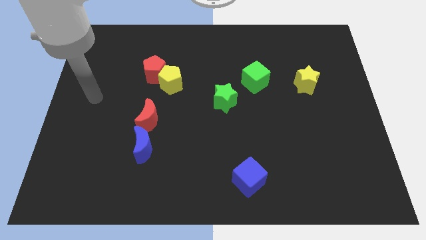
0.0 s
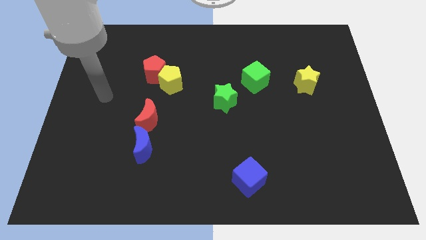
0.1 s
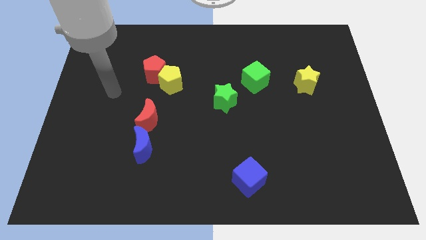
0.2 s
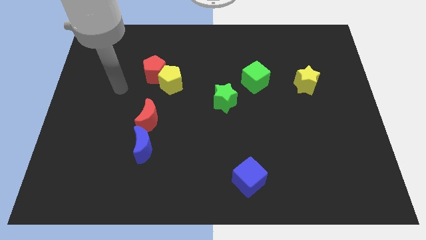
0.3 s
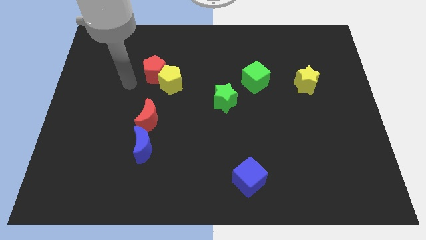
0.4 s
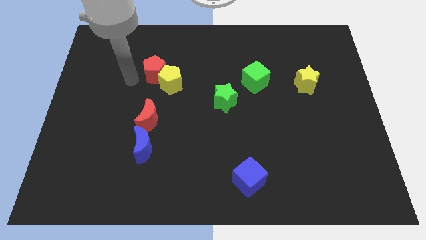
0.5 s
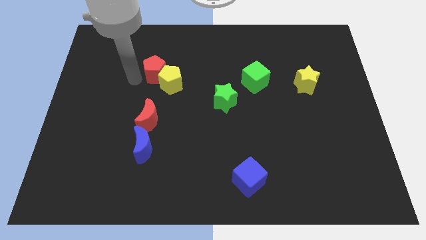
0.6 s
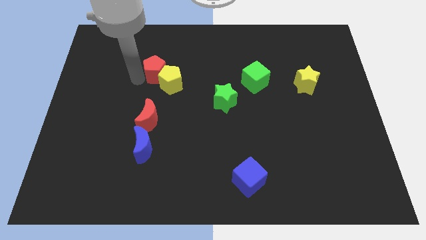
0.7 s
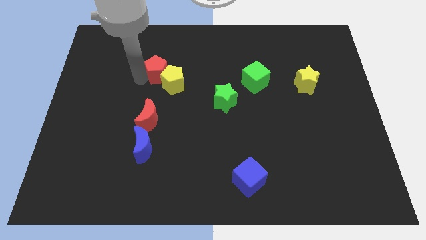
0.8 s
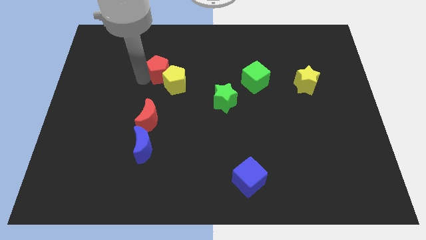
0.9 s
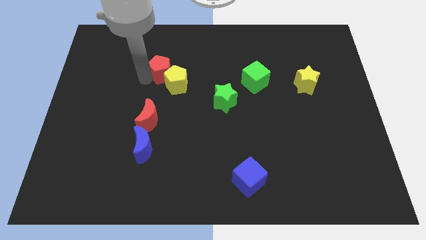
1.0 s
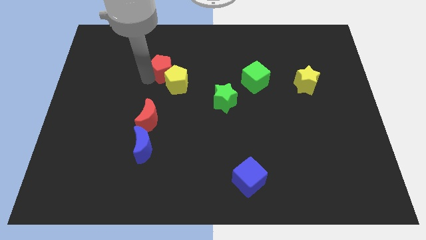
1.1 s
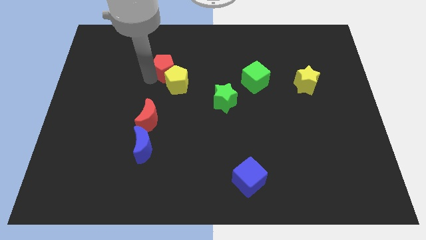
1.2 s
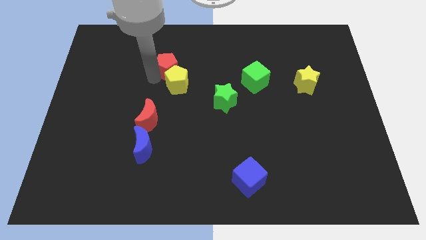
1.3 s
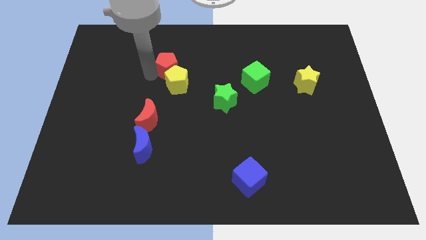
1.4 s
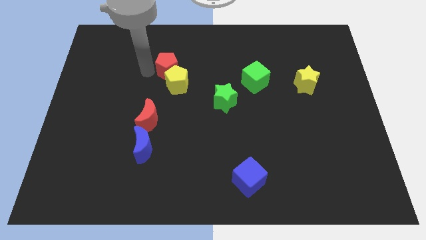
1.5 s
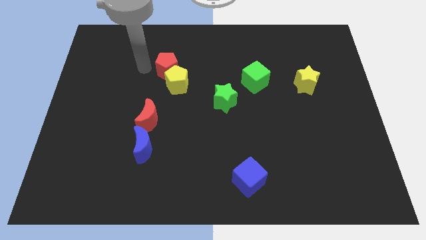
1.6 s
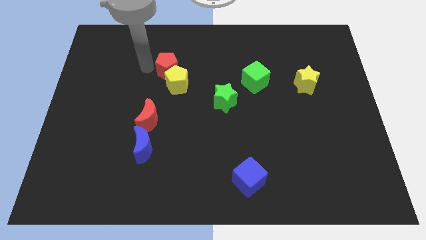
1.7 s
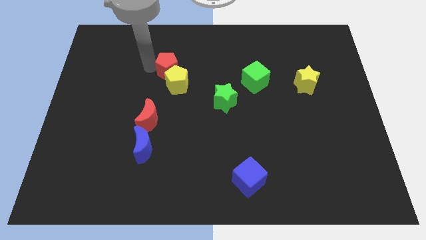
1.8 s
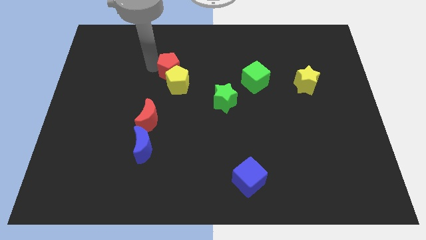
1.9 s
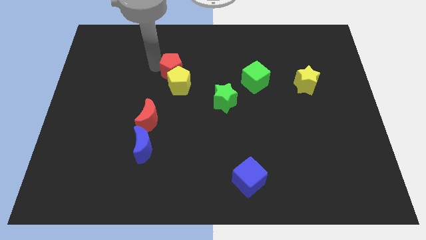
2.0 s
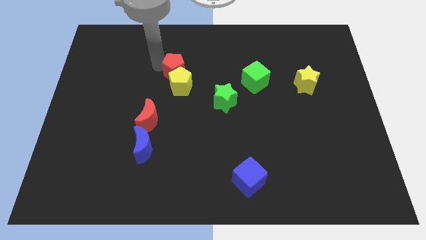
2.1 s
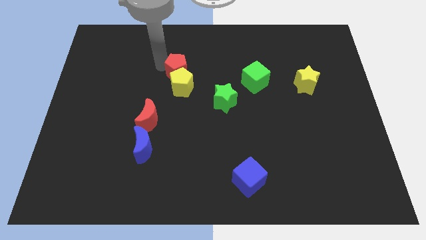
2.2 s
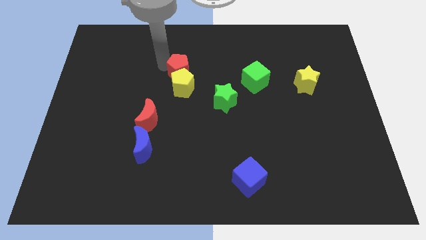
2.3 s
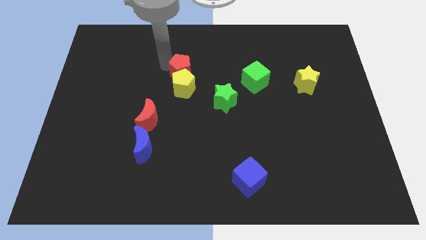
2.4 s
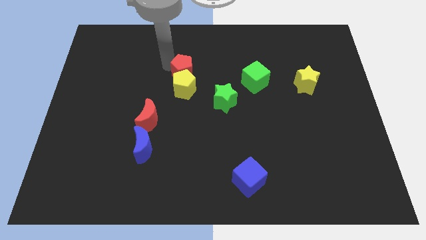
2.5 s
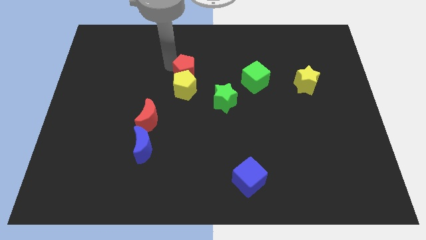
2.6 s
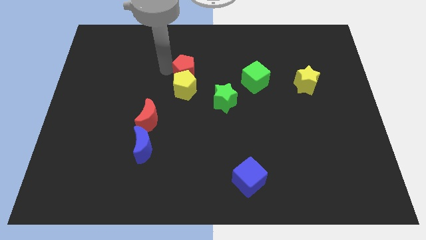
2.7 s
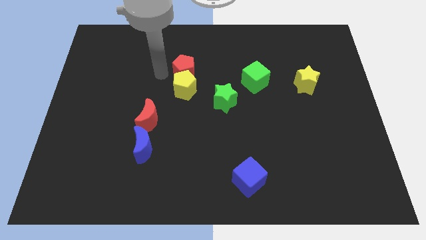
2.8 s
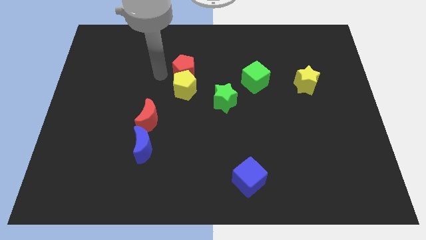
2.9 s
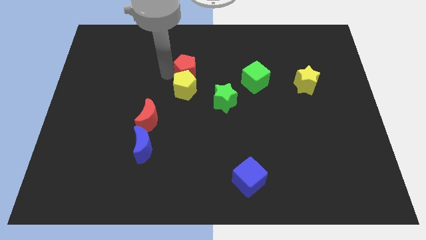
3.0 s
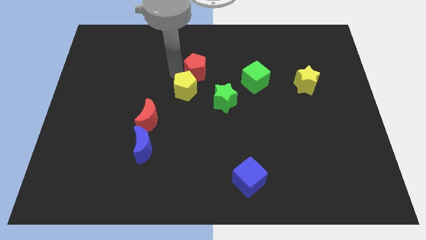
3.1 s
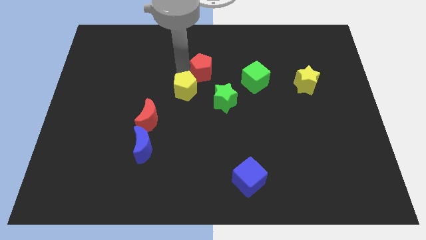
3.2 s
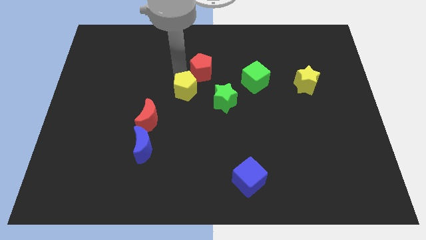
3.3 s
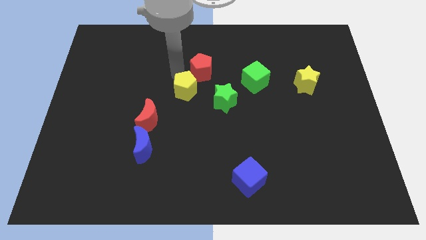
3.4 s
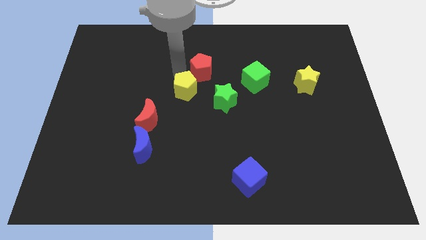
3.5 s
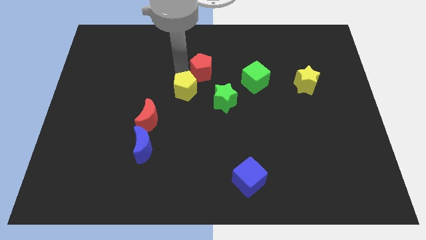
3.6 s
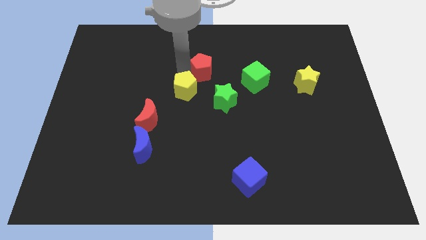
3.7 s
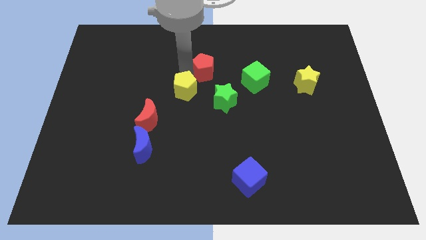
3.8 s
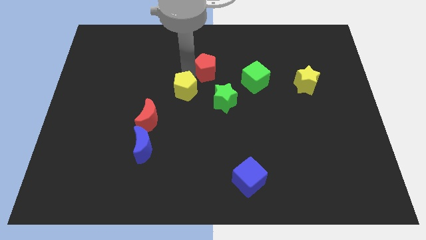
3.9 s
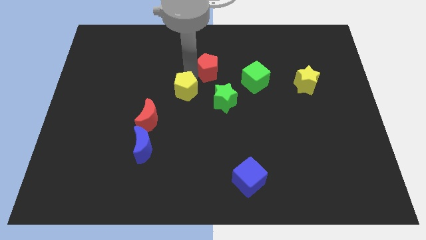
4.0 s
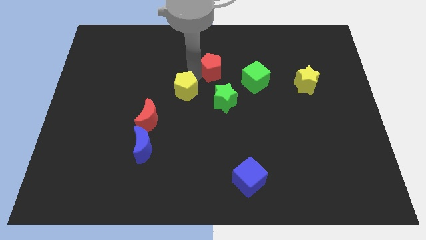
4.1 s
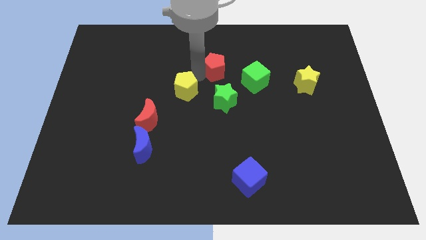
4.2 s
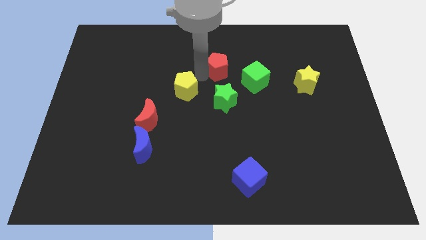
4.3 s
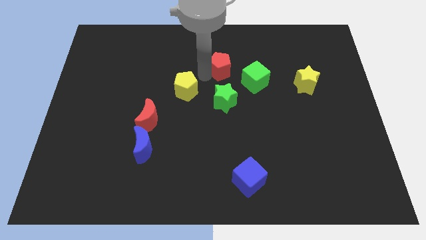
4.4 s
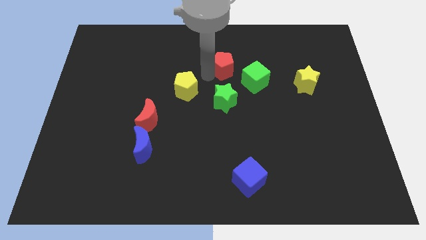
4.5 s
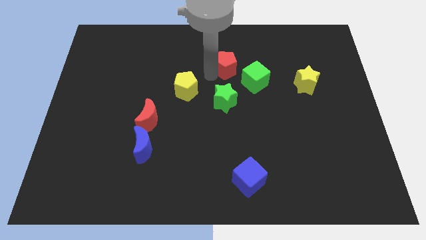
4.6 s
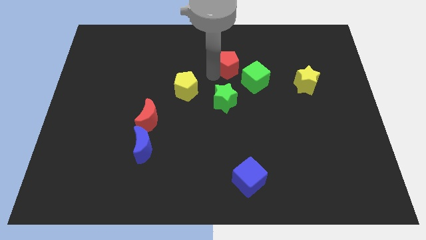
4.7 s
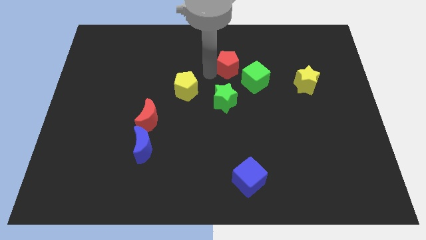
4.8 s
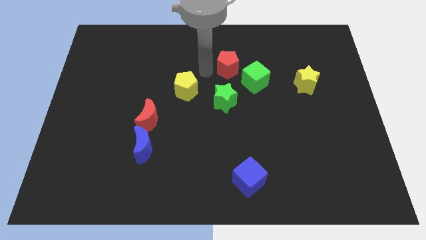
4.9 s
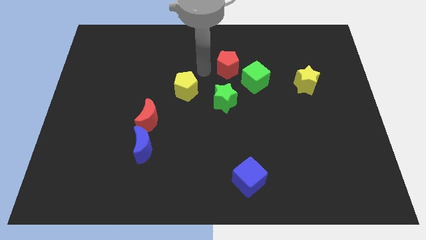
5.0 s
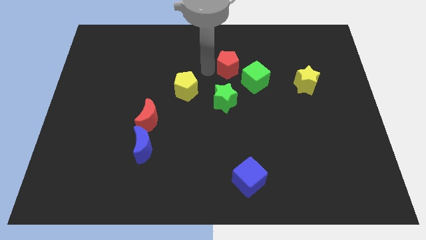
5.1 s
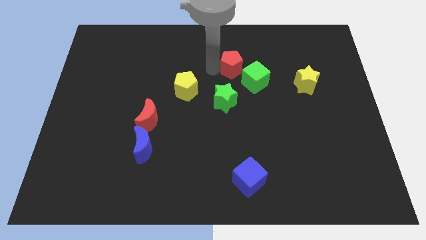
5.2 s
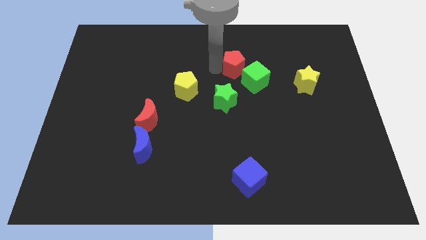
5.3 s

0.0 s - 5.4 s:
push the red pentagon right

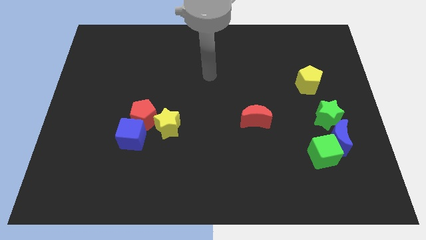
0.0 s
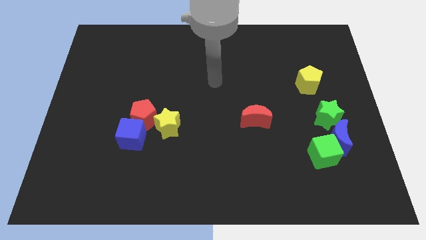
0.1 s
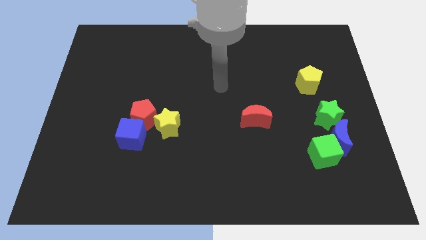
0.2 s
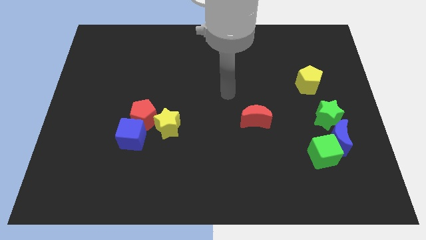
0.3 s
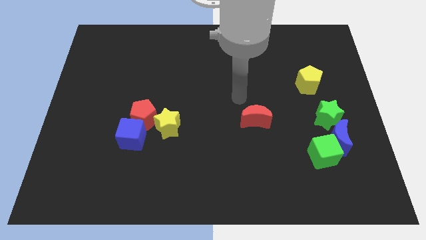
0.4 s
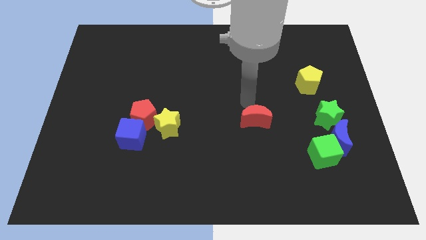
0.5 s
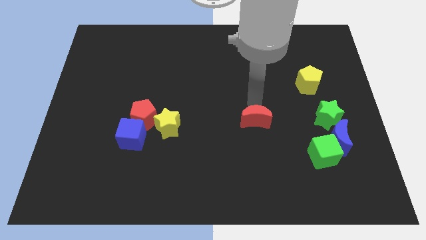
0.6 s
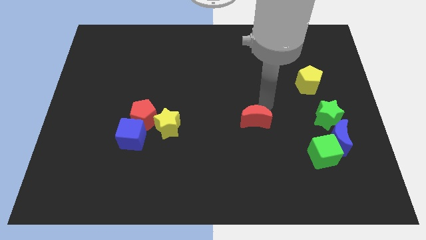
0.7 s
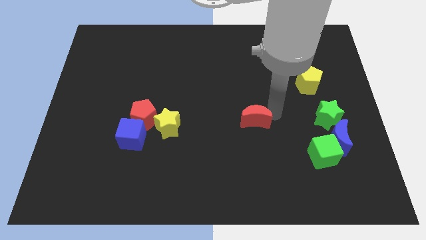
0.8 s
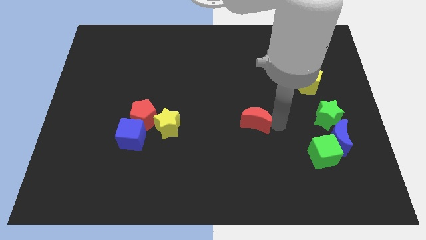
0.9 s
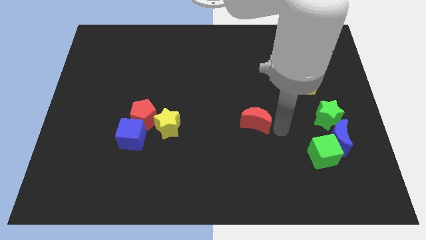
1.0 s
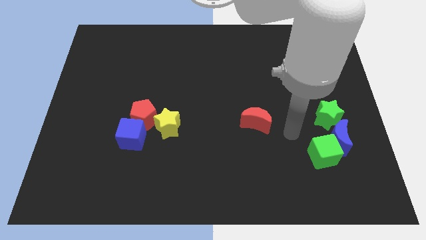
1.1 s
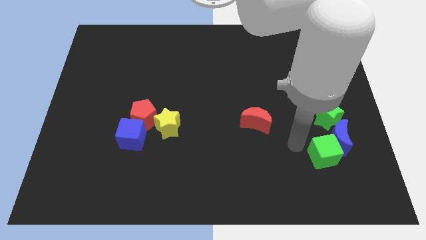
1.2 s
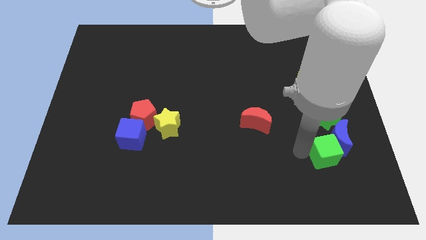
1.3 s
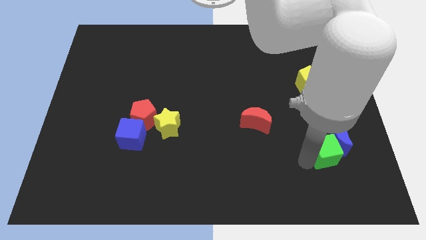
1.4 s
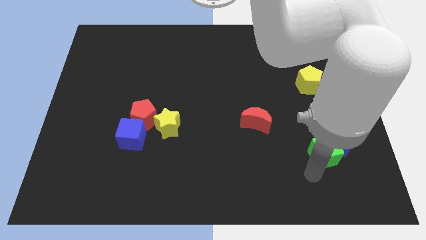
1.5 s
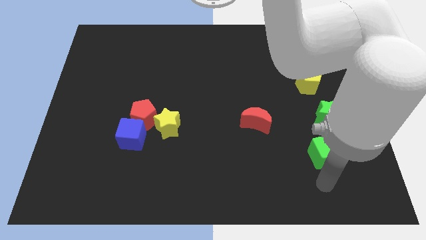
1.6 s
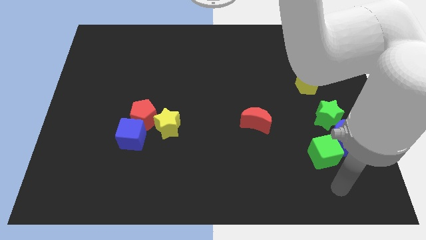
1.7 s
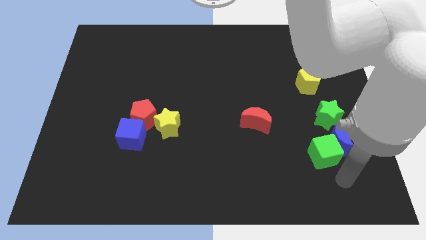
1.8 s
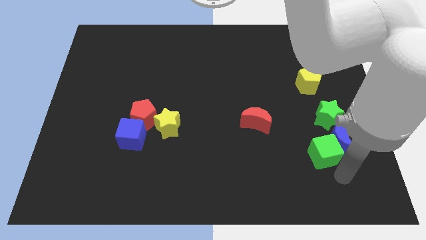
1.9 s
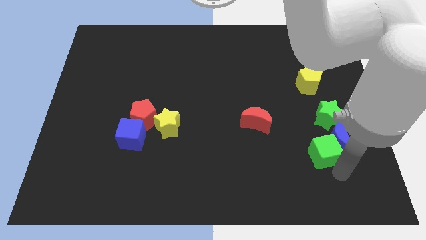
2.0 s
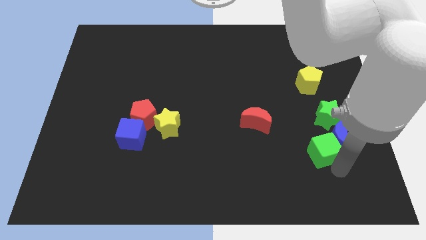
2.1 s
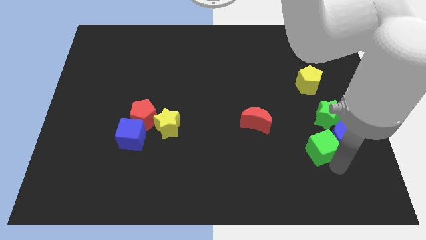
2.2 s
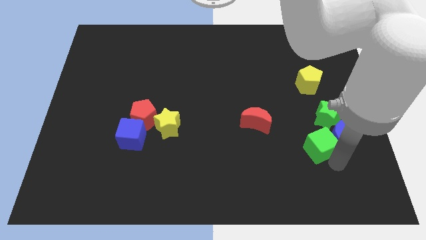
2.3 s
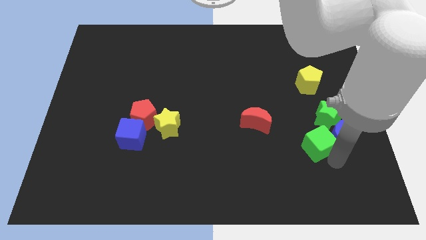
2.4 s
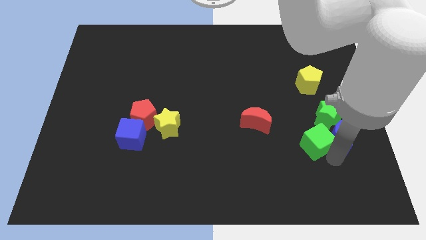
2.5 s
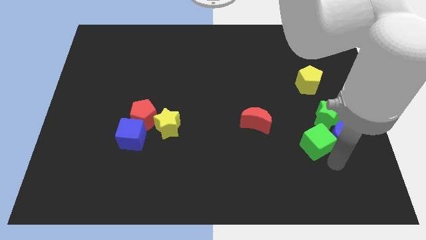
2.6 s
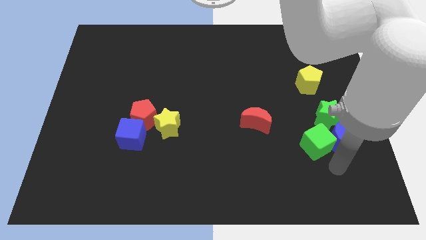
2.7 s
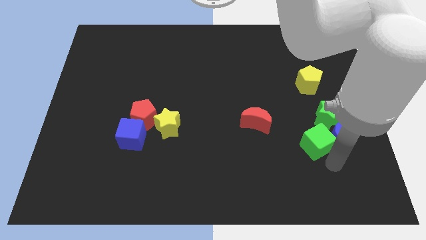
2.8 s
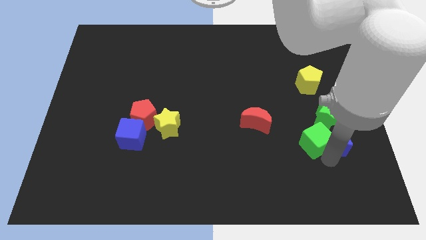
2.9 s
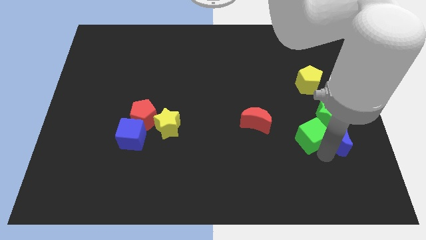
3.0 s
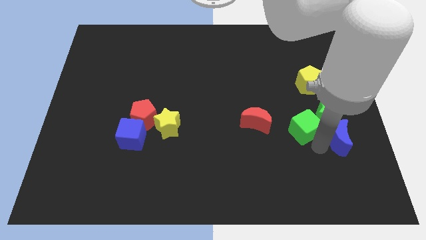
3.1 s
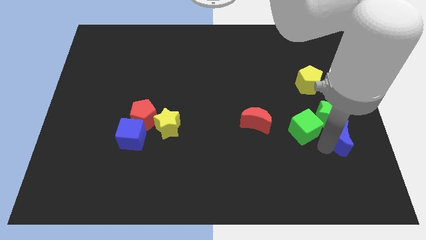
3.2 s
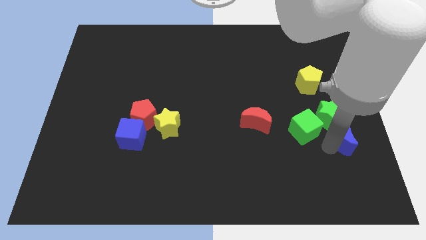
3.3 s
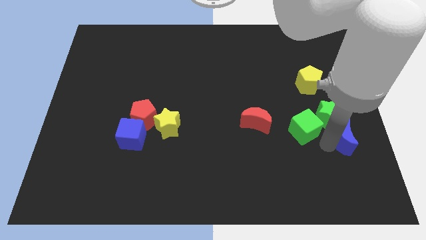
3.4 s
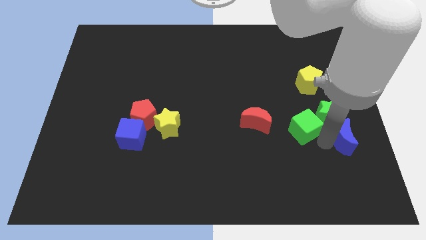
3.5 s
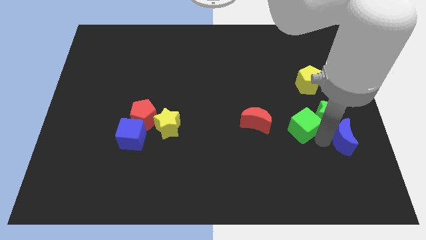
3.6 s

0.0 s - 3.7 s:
move the green cube up and to the left diagonally a little bit
